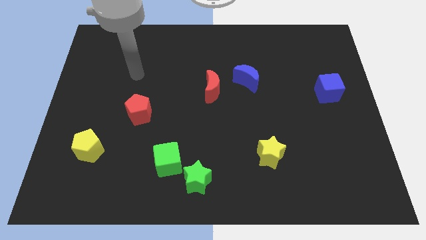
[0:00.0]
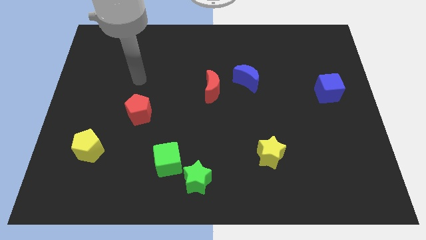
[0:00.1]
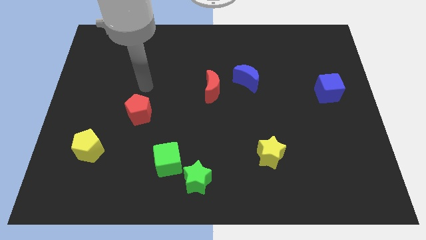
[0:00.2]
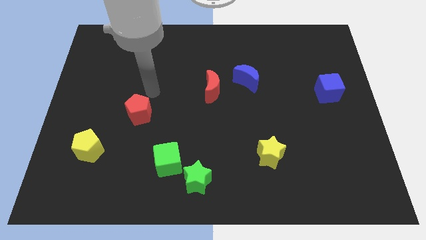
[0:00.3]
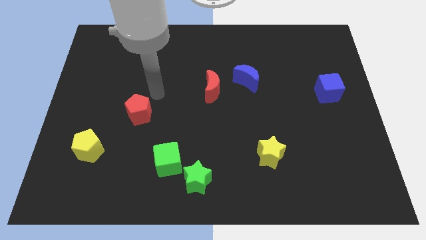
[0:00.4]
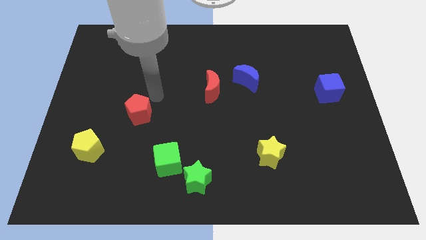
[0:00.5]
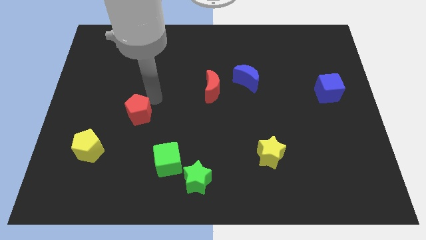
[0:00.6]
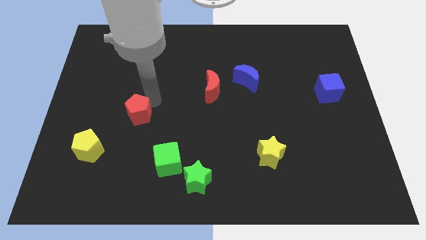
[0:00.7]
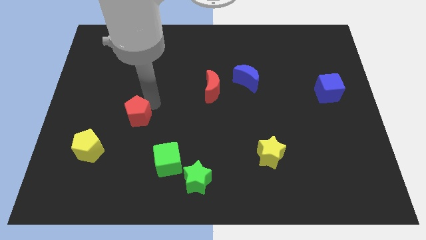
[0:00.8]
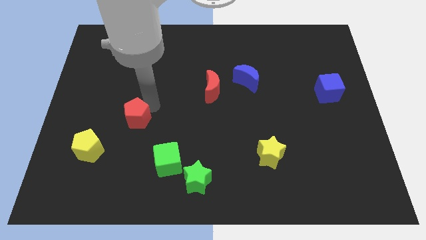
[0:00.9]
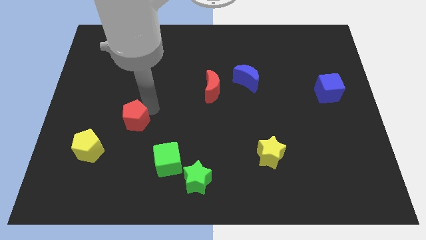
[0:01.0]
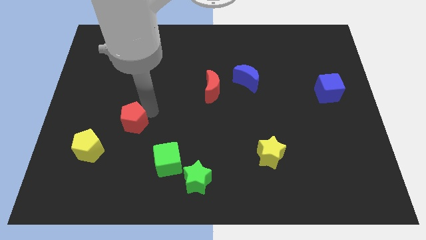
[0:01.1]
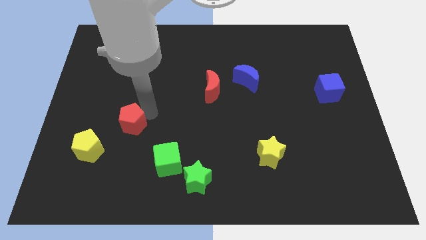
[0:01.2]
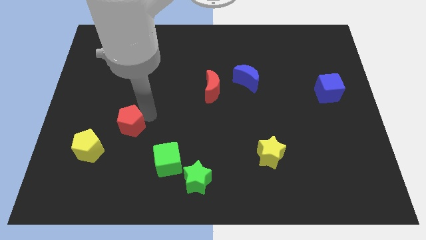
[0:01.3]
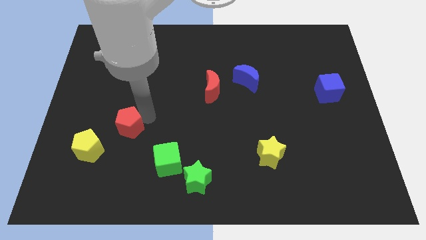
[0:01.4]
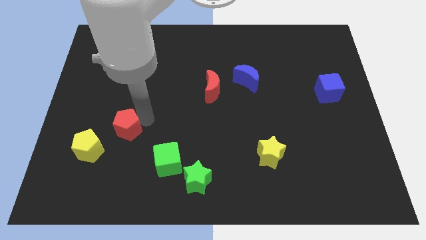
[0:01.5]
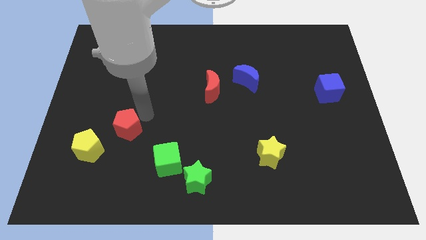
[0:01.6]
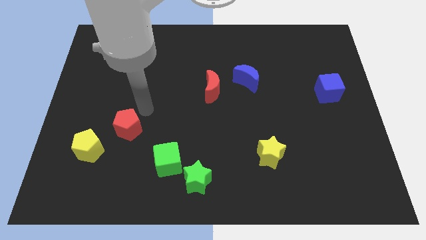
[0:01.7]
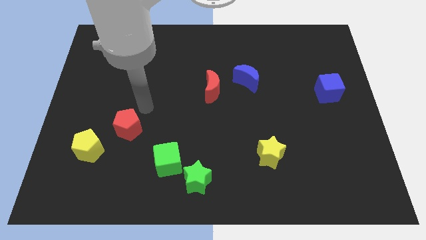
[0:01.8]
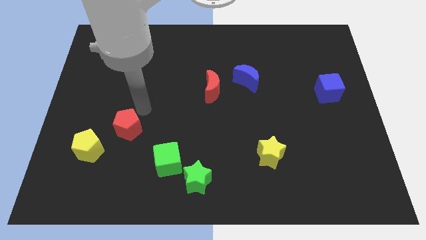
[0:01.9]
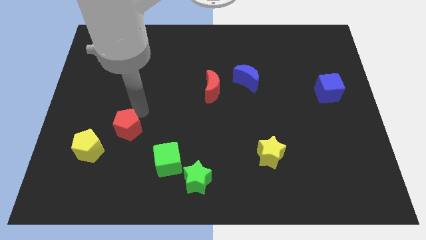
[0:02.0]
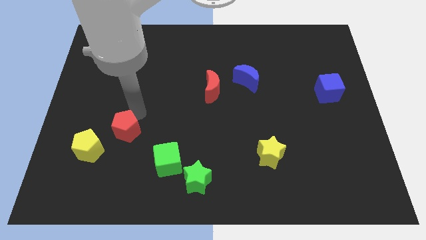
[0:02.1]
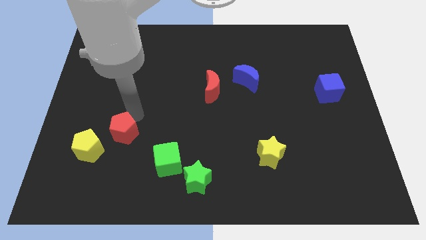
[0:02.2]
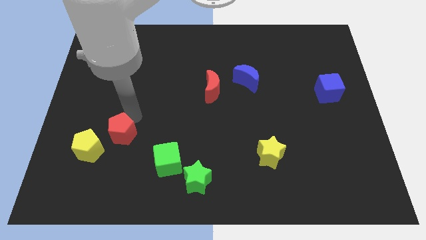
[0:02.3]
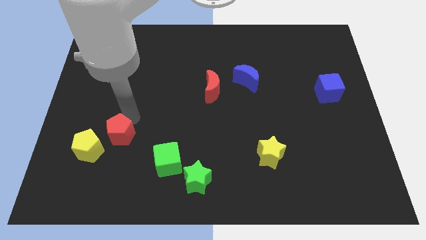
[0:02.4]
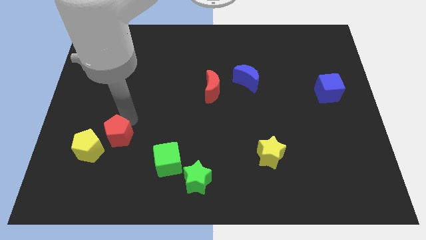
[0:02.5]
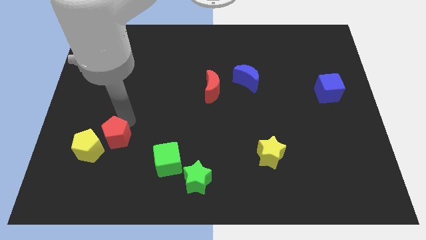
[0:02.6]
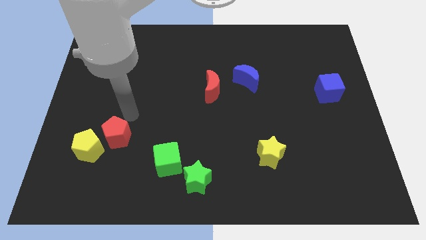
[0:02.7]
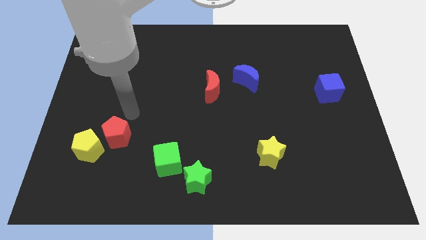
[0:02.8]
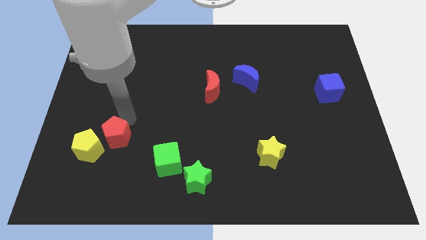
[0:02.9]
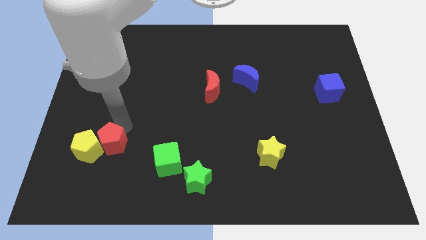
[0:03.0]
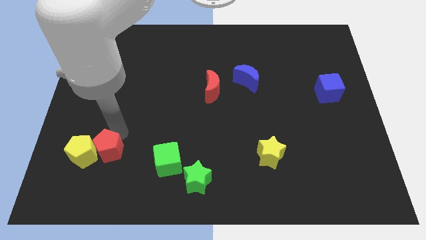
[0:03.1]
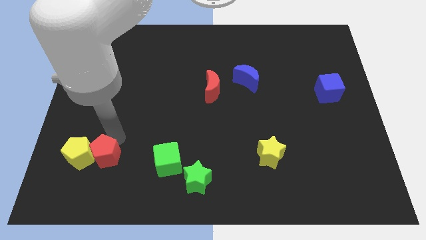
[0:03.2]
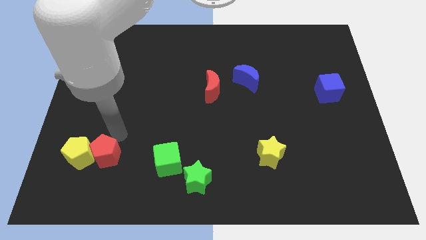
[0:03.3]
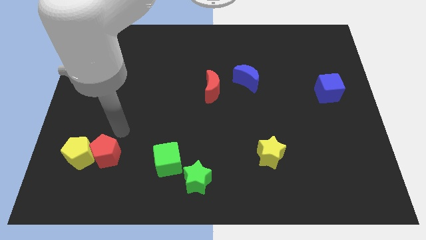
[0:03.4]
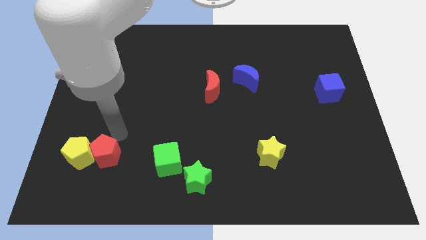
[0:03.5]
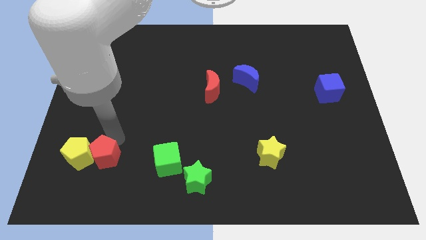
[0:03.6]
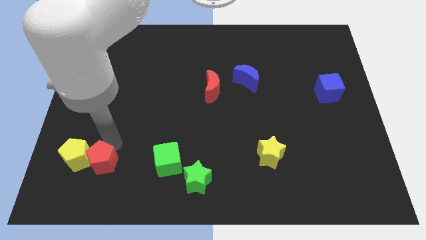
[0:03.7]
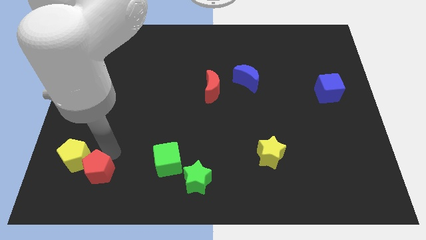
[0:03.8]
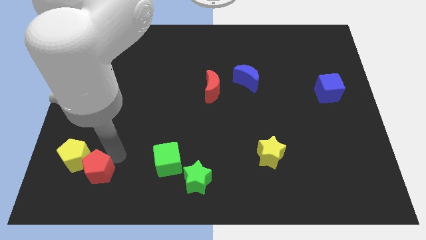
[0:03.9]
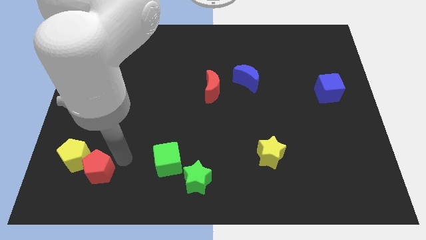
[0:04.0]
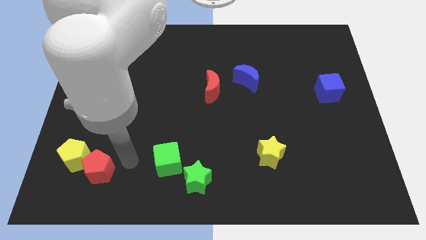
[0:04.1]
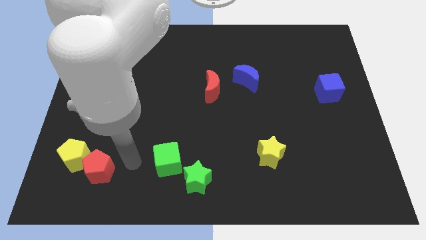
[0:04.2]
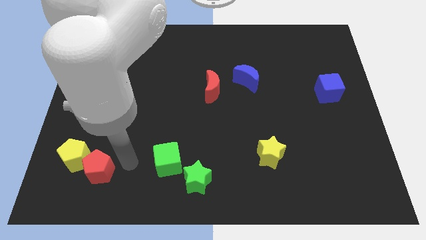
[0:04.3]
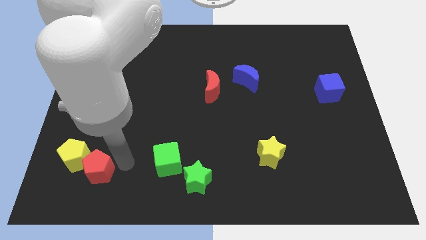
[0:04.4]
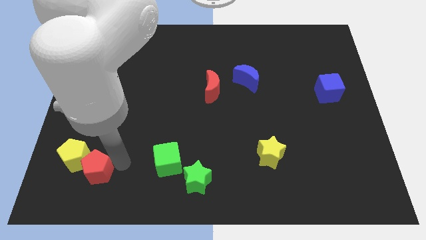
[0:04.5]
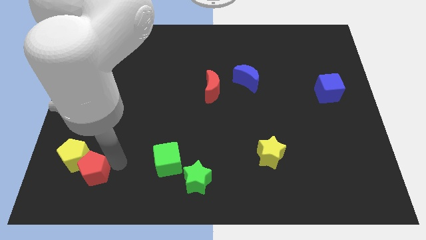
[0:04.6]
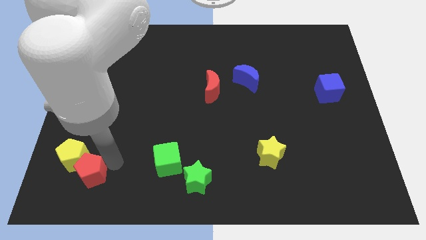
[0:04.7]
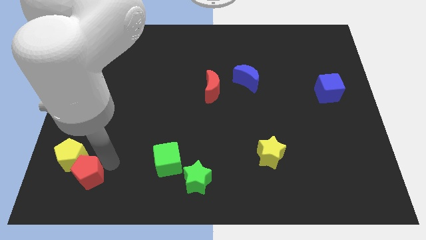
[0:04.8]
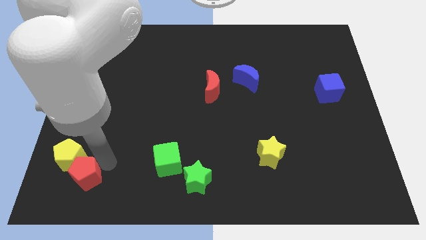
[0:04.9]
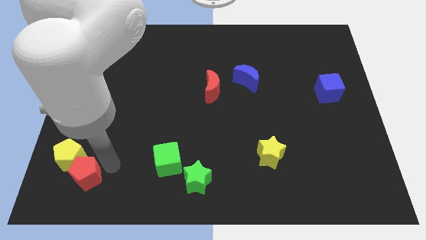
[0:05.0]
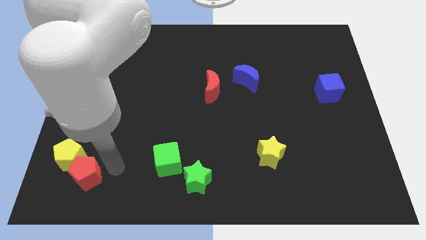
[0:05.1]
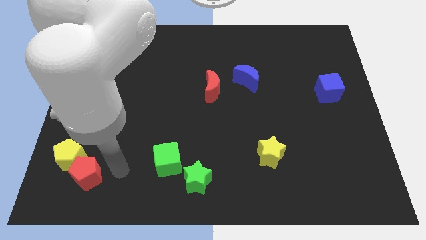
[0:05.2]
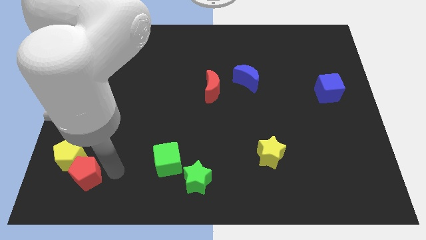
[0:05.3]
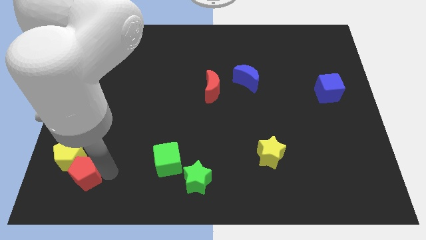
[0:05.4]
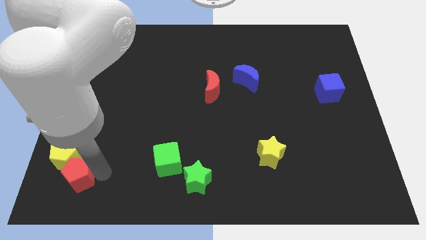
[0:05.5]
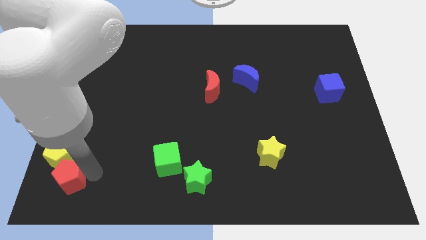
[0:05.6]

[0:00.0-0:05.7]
move the red pentagon to the bottom left

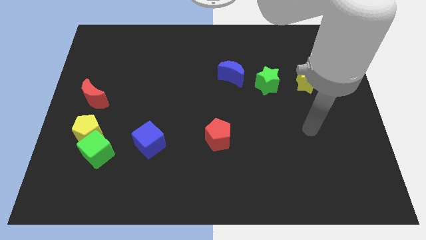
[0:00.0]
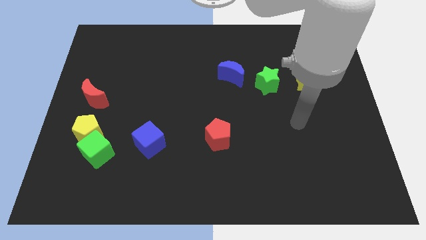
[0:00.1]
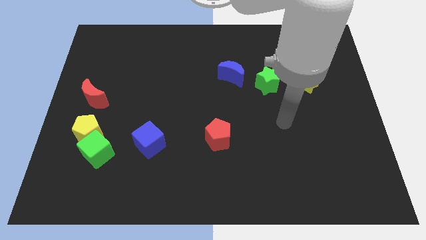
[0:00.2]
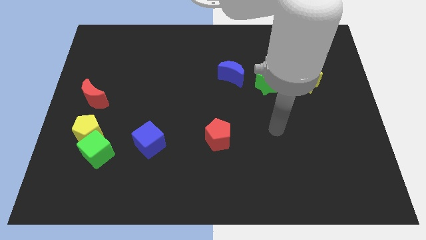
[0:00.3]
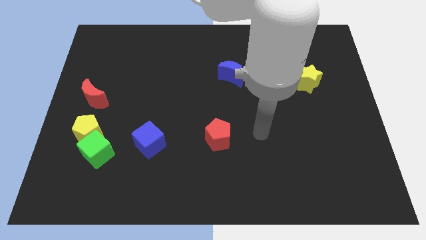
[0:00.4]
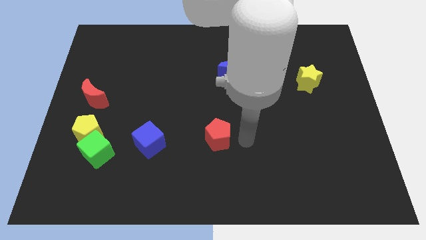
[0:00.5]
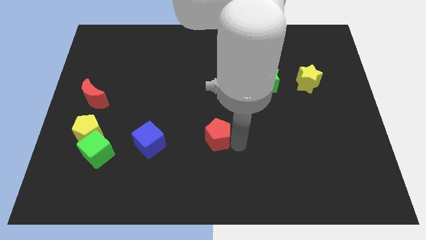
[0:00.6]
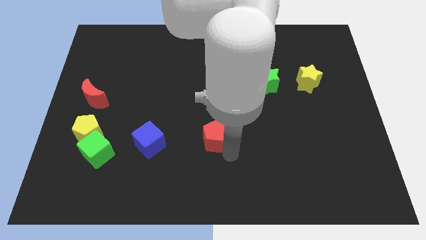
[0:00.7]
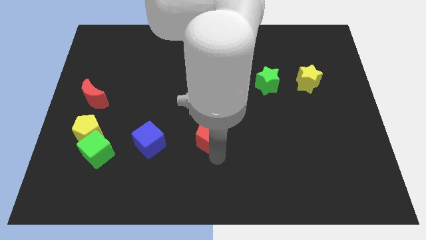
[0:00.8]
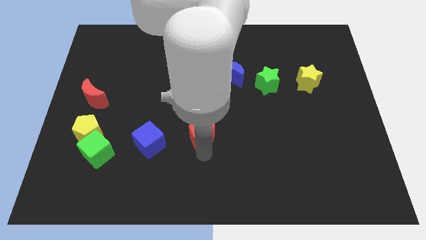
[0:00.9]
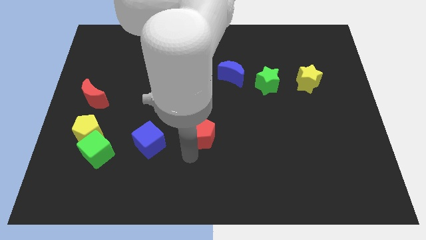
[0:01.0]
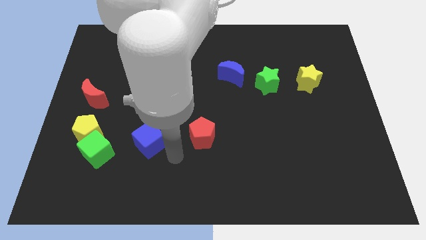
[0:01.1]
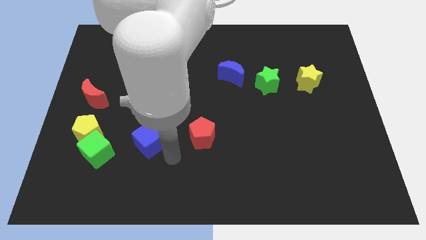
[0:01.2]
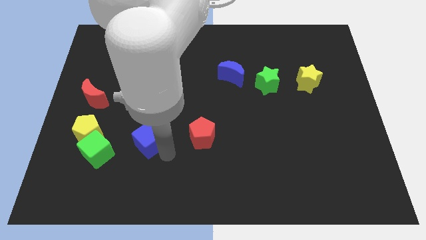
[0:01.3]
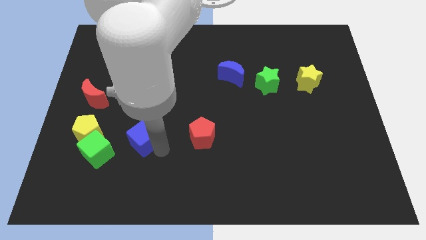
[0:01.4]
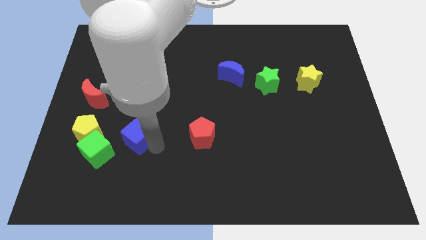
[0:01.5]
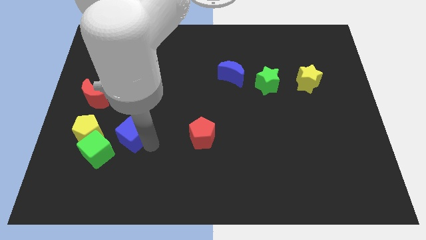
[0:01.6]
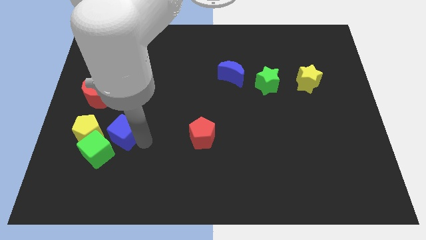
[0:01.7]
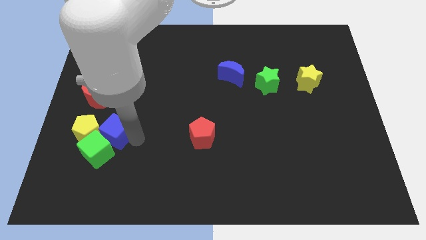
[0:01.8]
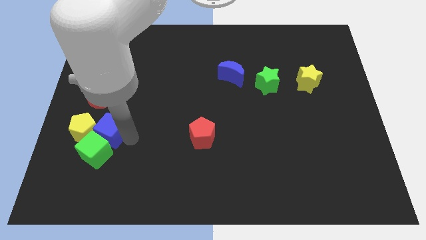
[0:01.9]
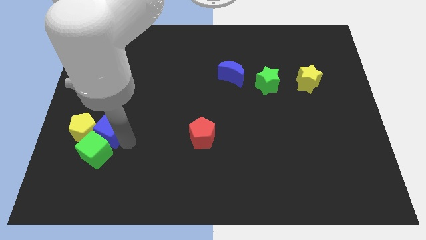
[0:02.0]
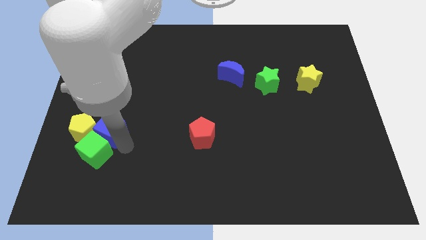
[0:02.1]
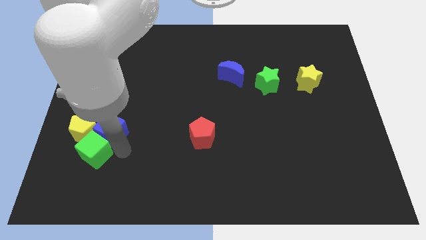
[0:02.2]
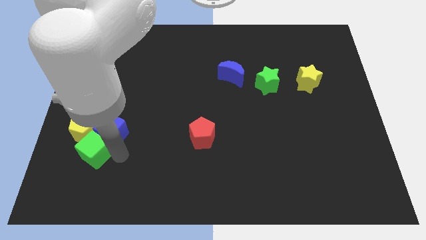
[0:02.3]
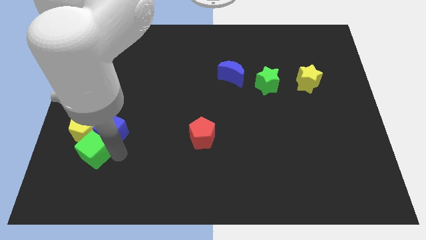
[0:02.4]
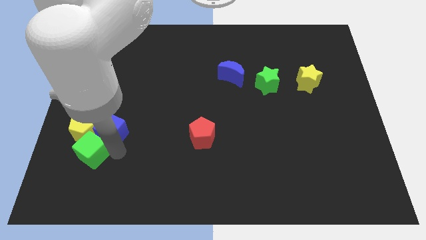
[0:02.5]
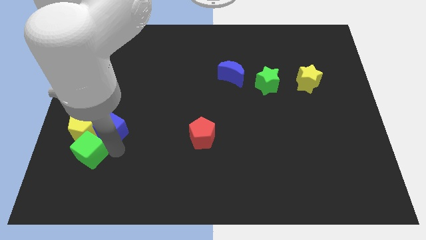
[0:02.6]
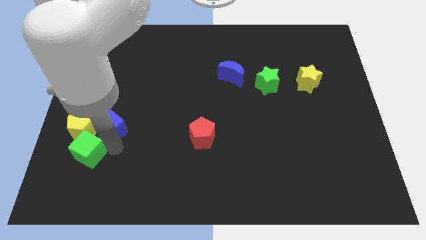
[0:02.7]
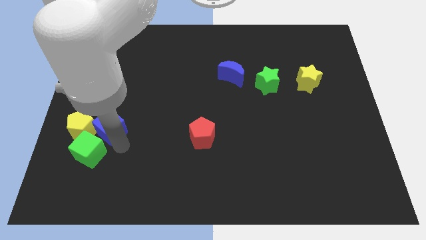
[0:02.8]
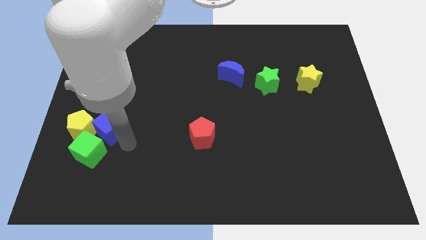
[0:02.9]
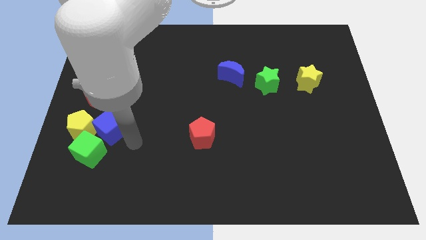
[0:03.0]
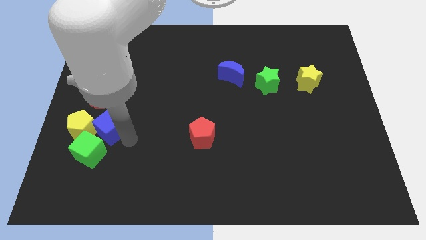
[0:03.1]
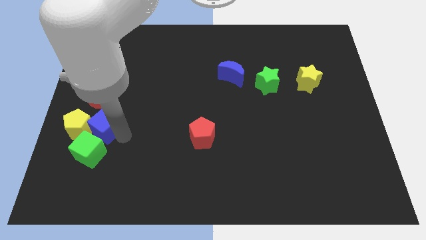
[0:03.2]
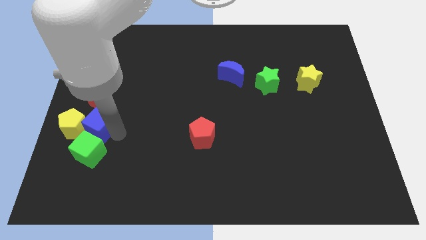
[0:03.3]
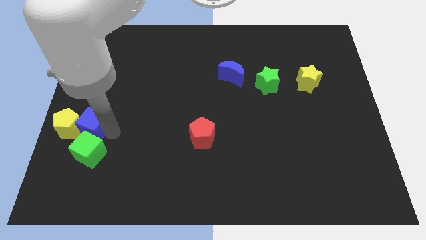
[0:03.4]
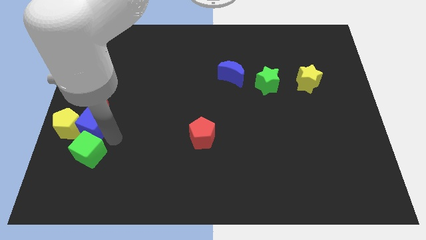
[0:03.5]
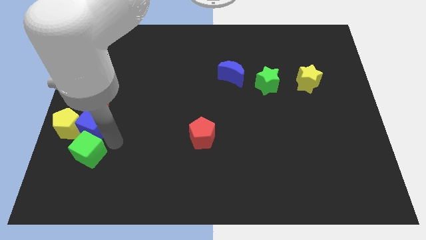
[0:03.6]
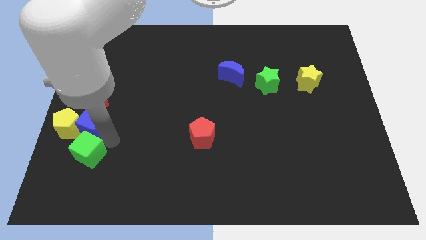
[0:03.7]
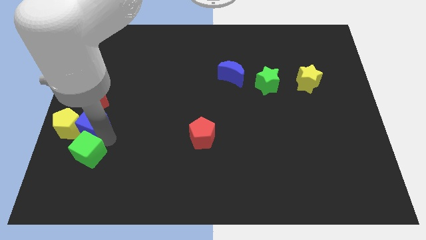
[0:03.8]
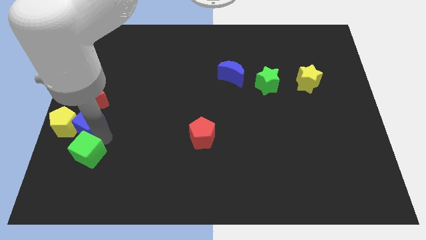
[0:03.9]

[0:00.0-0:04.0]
push the blue cube to the center left
